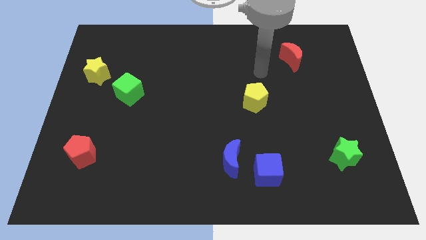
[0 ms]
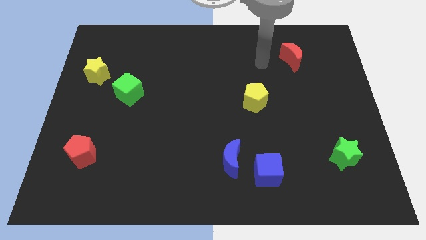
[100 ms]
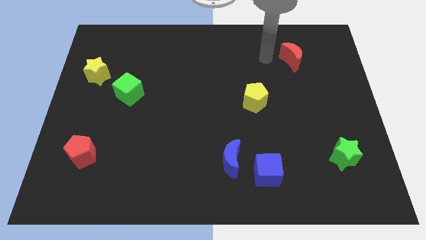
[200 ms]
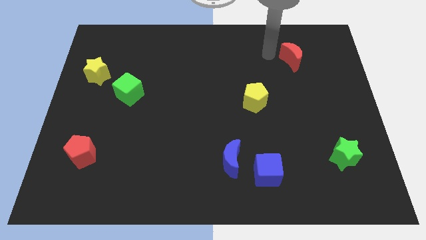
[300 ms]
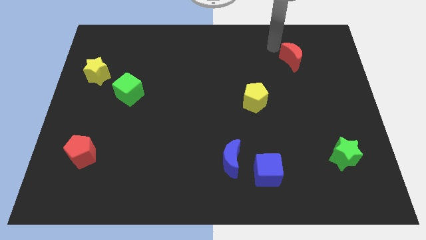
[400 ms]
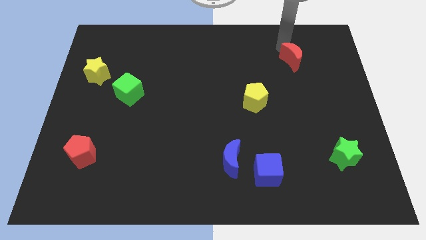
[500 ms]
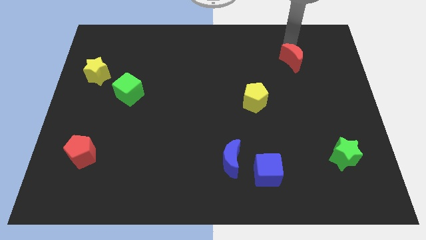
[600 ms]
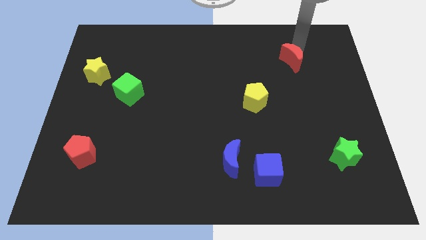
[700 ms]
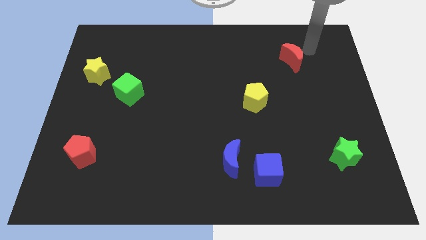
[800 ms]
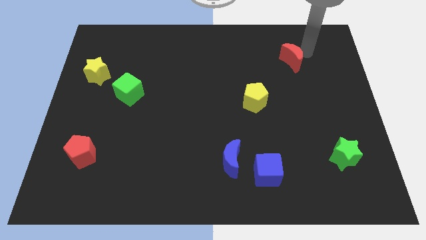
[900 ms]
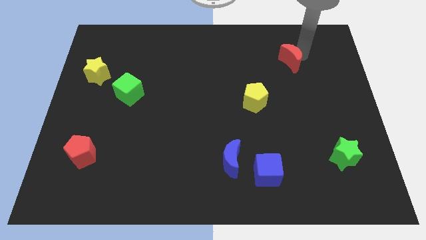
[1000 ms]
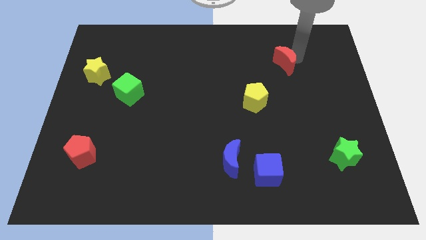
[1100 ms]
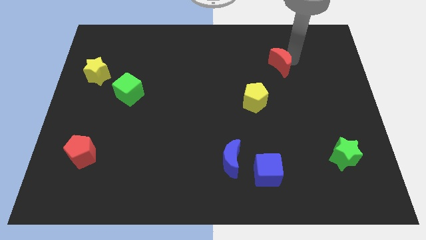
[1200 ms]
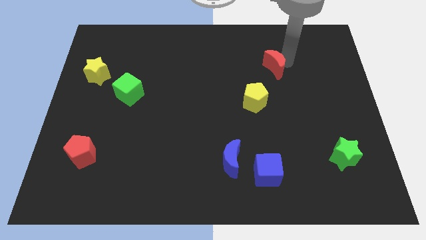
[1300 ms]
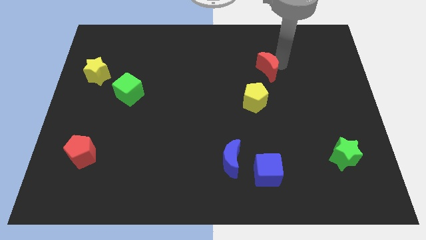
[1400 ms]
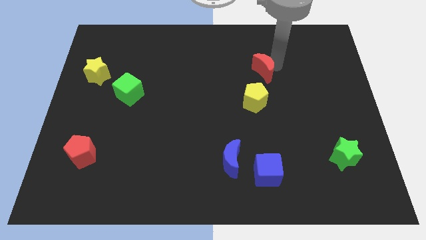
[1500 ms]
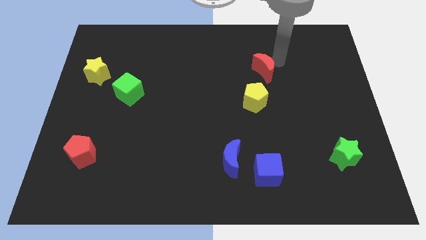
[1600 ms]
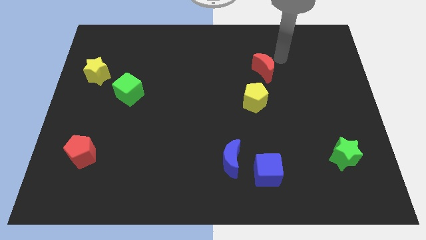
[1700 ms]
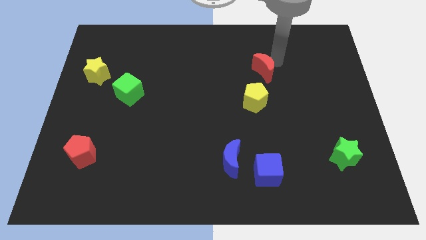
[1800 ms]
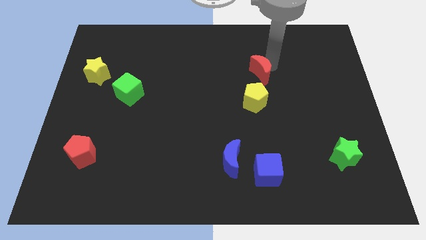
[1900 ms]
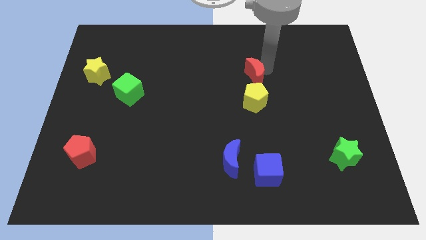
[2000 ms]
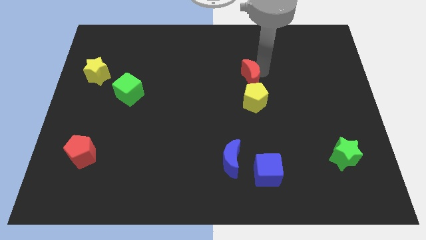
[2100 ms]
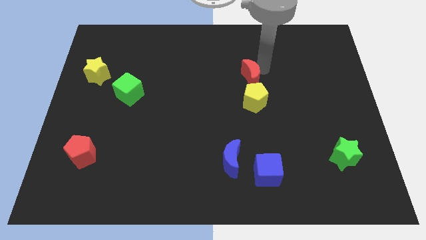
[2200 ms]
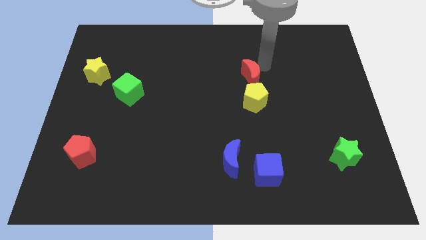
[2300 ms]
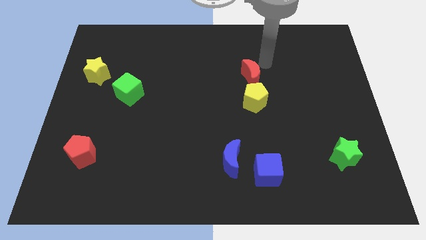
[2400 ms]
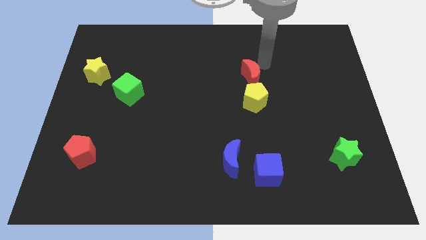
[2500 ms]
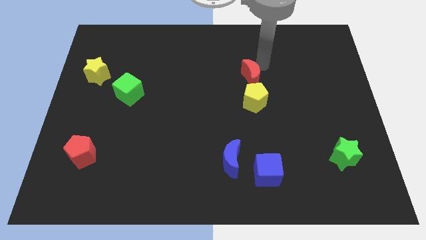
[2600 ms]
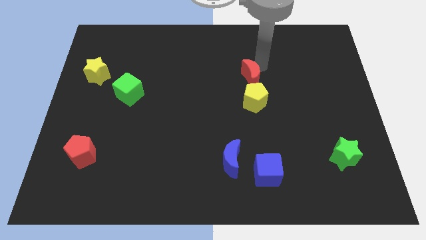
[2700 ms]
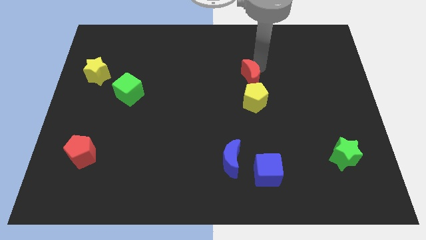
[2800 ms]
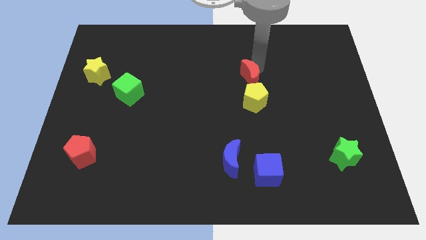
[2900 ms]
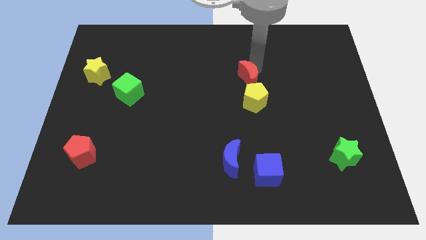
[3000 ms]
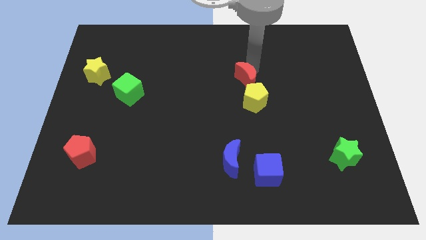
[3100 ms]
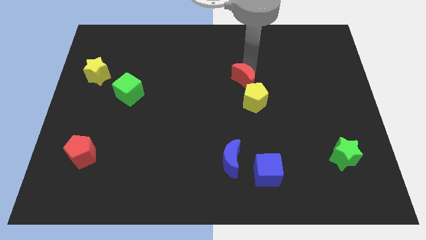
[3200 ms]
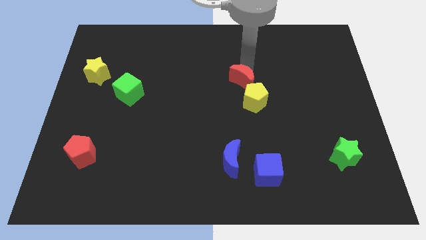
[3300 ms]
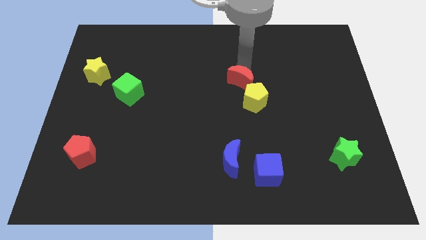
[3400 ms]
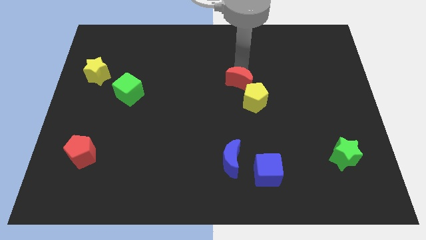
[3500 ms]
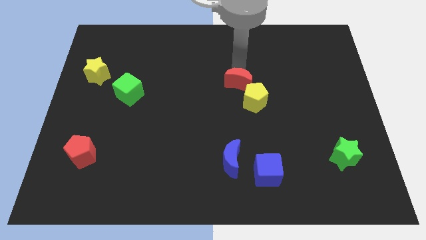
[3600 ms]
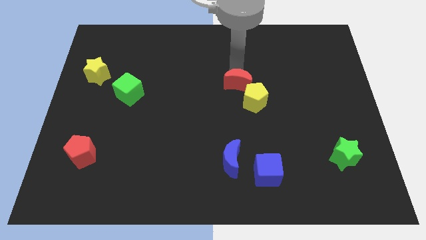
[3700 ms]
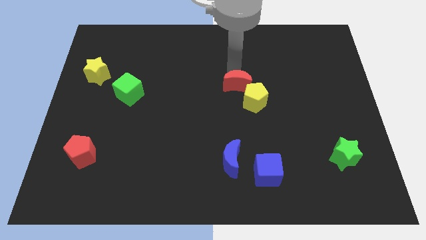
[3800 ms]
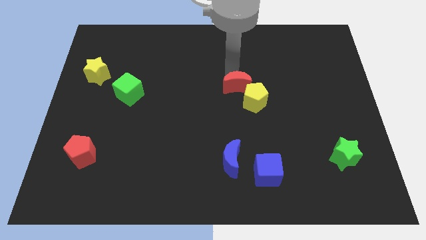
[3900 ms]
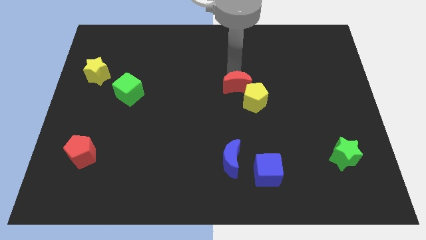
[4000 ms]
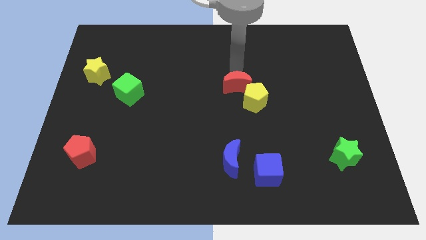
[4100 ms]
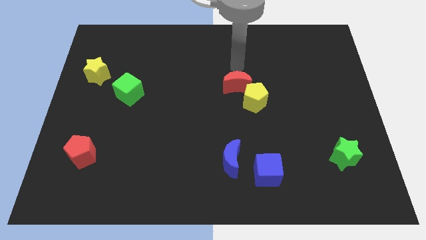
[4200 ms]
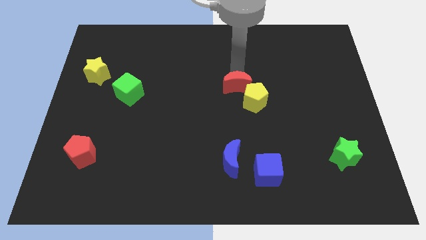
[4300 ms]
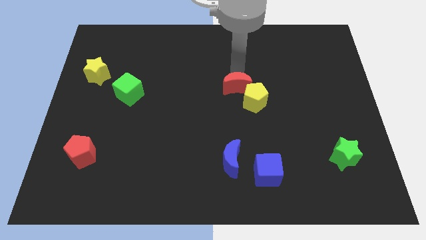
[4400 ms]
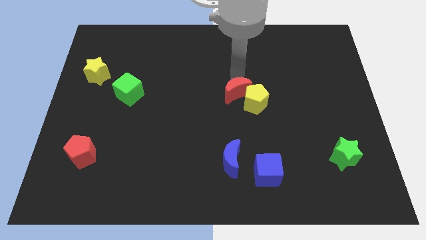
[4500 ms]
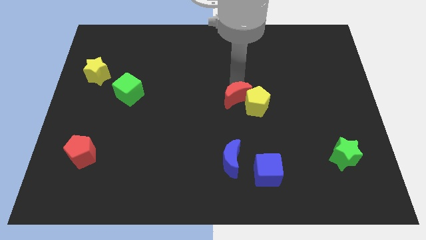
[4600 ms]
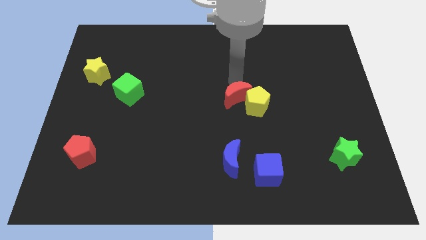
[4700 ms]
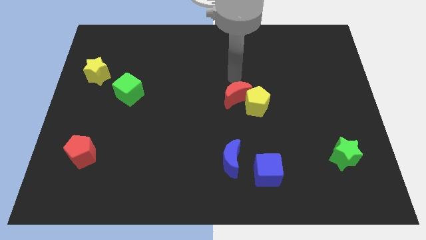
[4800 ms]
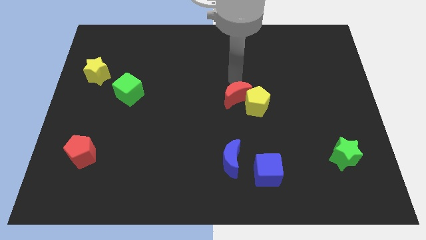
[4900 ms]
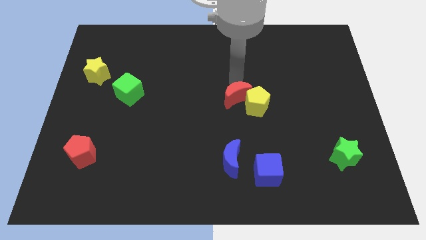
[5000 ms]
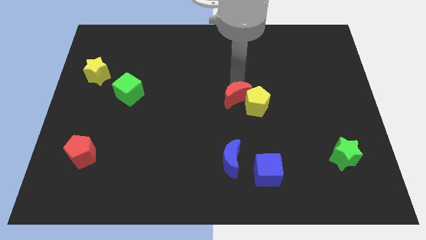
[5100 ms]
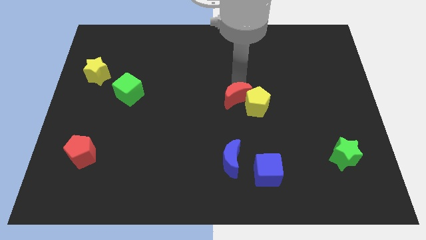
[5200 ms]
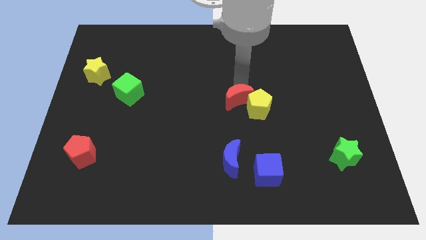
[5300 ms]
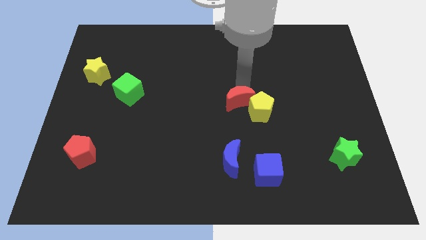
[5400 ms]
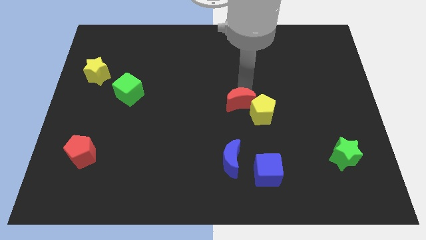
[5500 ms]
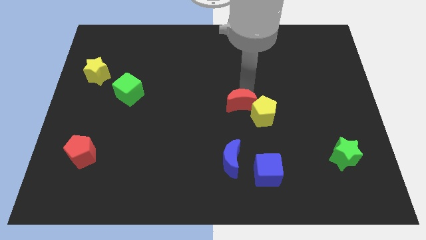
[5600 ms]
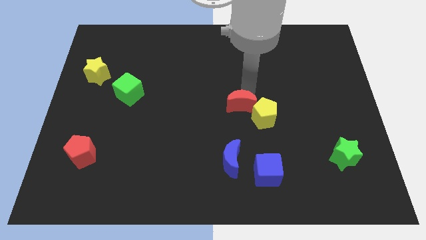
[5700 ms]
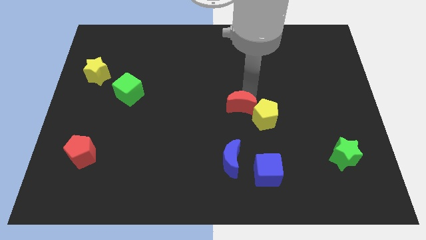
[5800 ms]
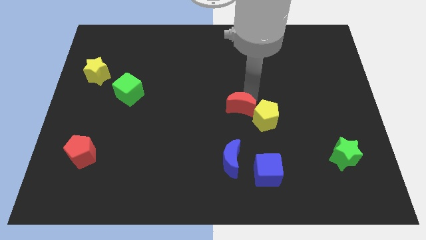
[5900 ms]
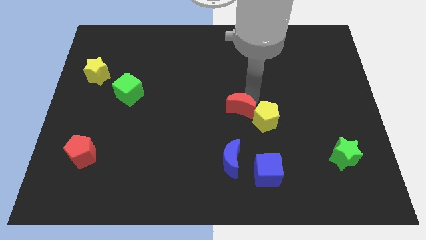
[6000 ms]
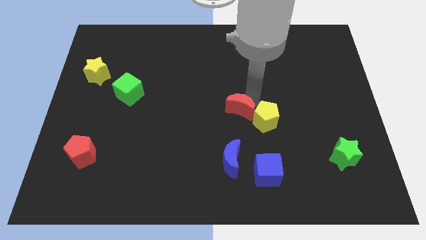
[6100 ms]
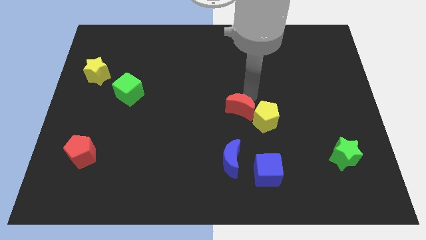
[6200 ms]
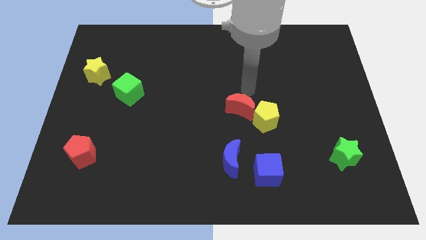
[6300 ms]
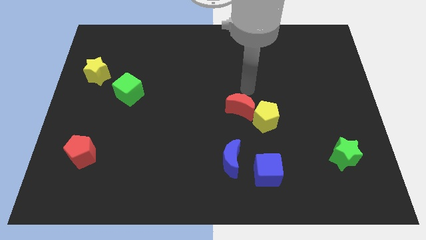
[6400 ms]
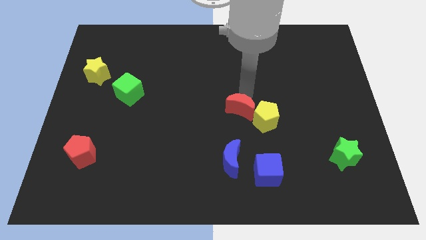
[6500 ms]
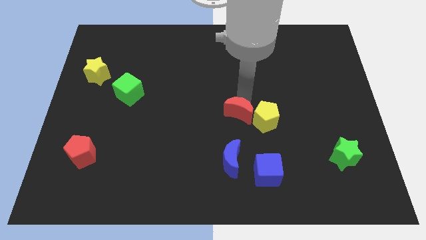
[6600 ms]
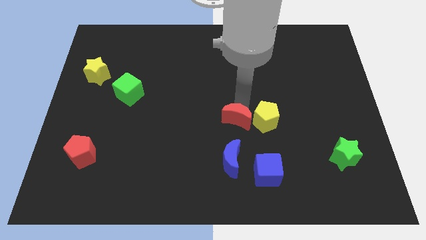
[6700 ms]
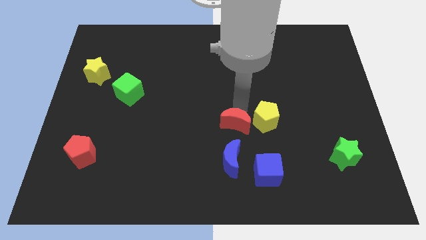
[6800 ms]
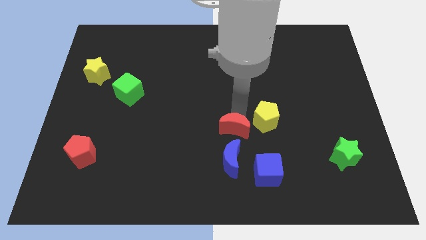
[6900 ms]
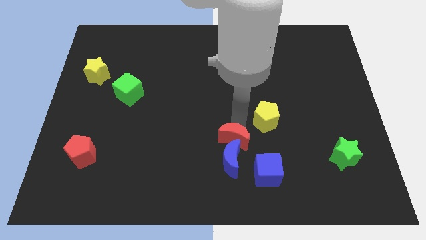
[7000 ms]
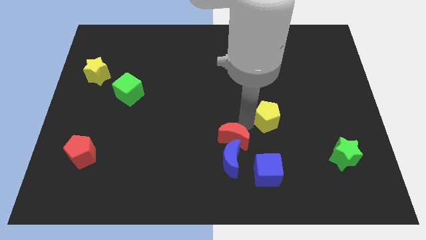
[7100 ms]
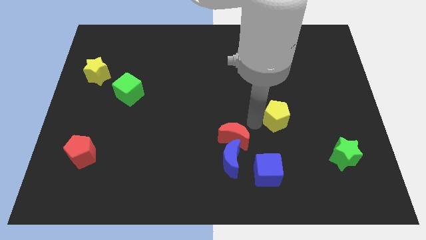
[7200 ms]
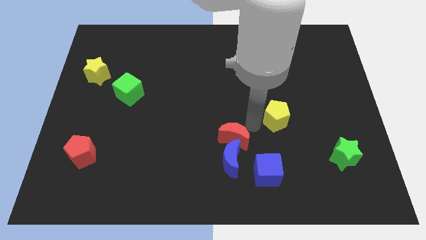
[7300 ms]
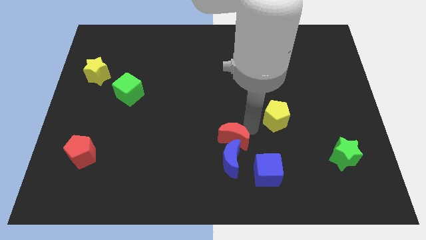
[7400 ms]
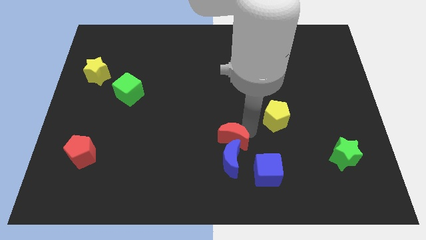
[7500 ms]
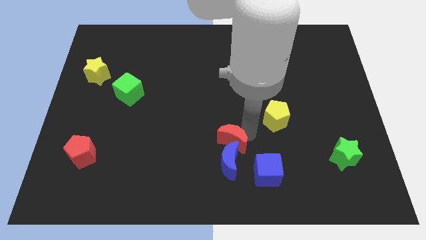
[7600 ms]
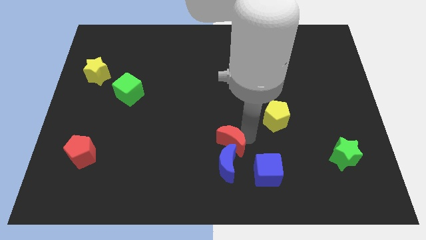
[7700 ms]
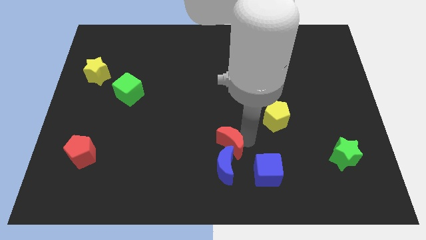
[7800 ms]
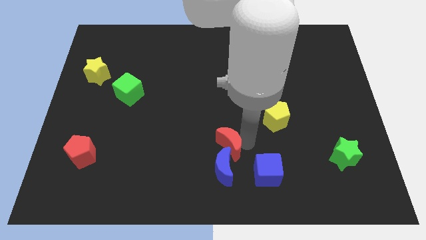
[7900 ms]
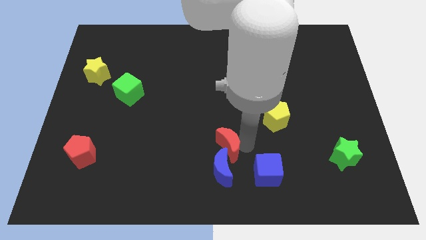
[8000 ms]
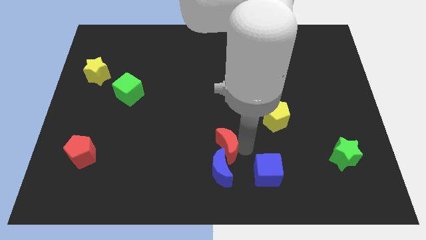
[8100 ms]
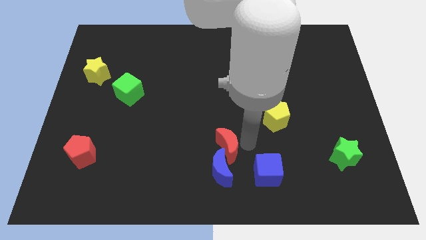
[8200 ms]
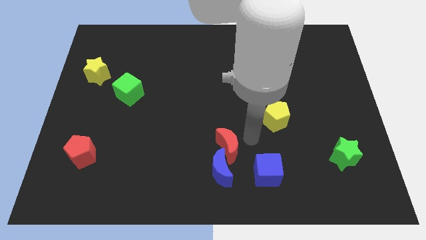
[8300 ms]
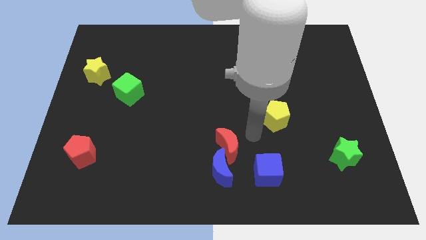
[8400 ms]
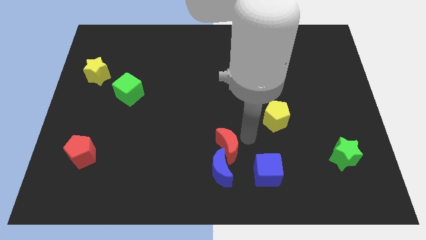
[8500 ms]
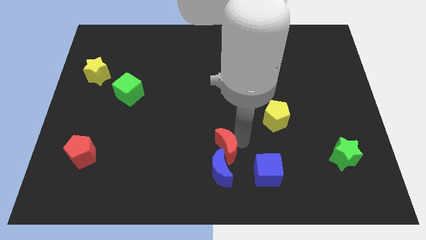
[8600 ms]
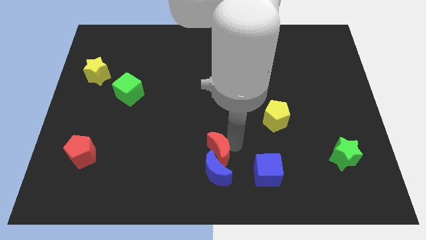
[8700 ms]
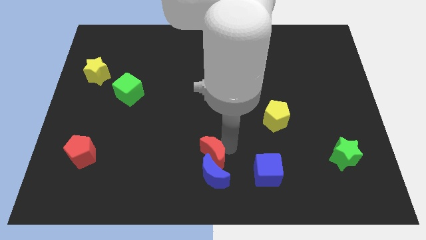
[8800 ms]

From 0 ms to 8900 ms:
put the red moon just left of the blue cube
